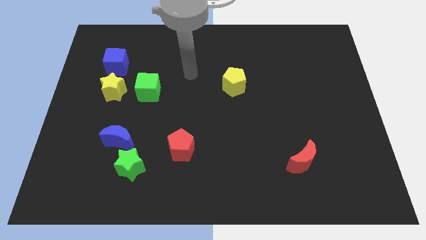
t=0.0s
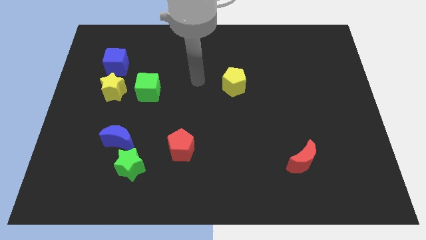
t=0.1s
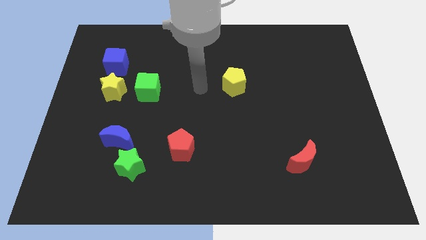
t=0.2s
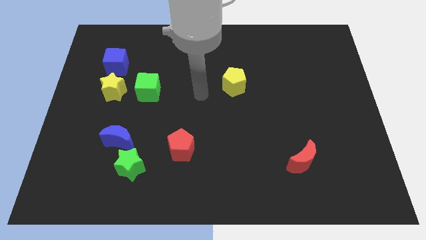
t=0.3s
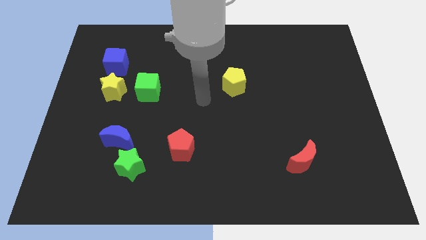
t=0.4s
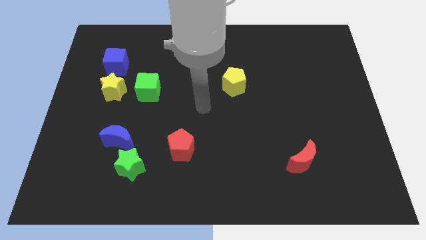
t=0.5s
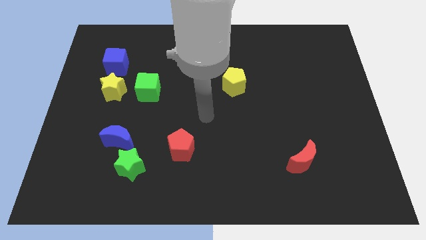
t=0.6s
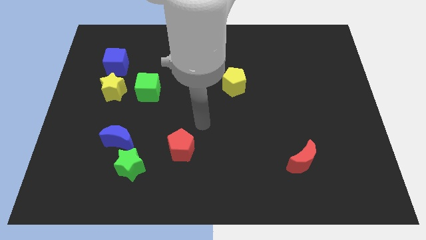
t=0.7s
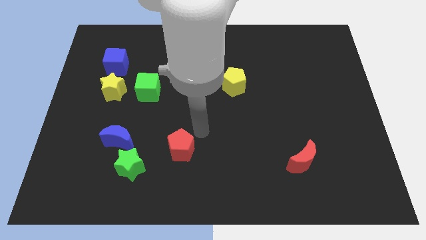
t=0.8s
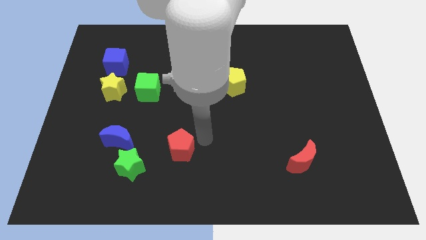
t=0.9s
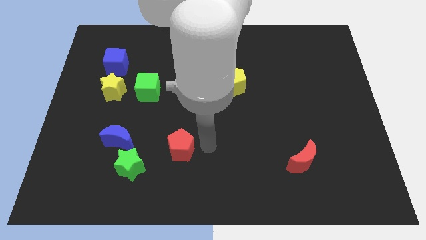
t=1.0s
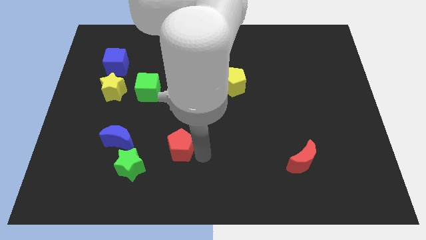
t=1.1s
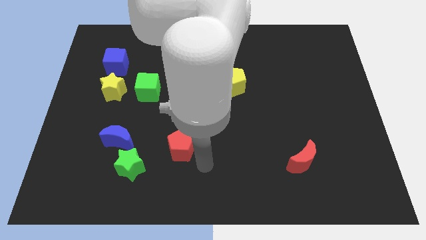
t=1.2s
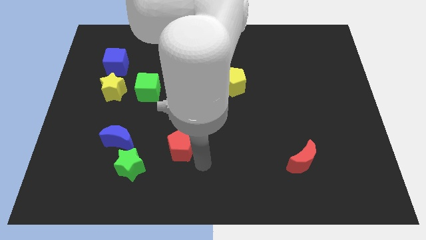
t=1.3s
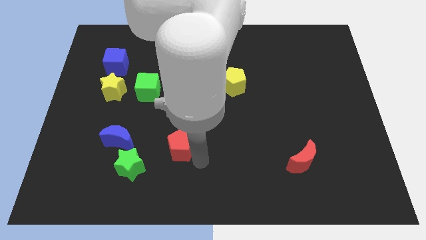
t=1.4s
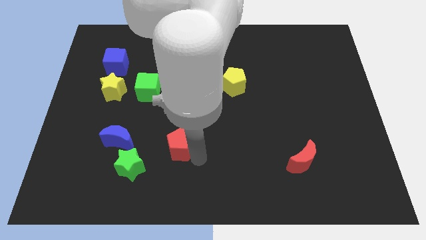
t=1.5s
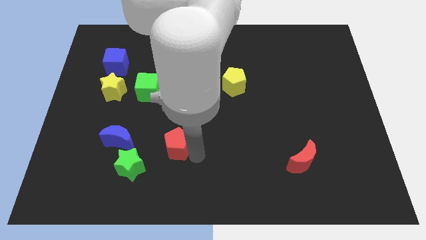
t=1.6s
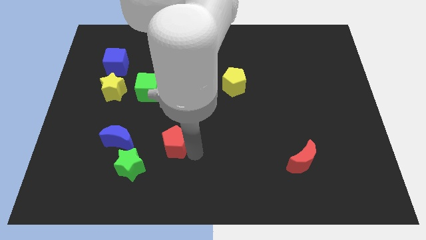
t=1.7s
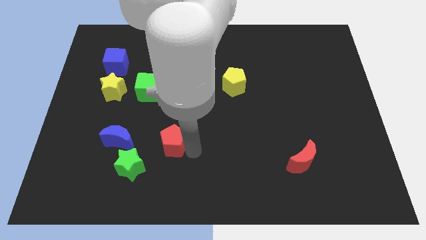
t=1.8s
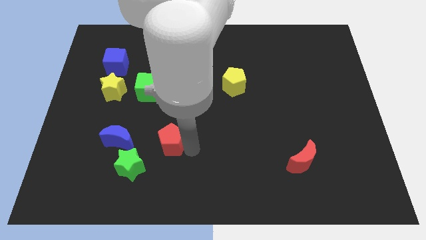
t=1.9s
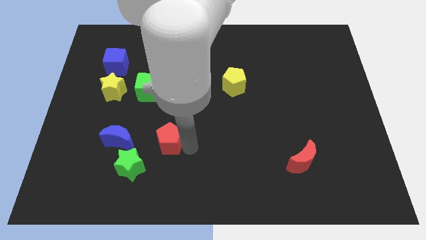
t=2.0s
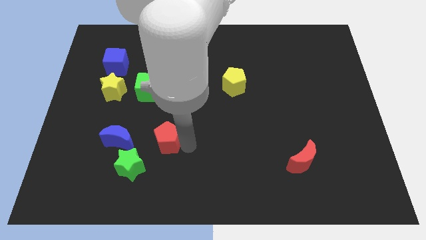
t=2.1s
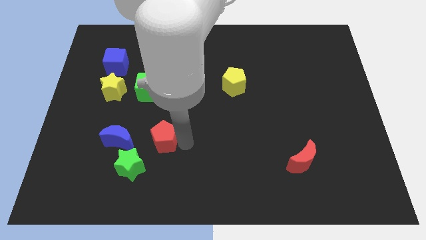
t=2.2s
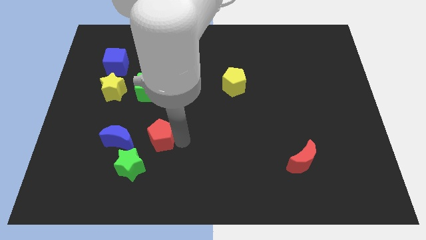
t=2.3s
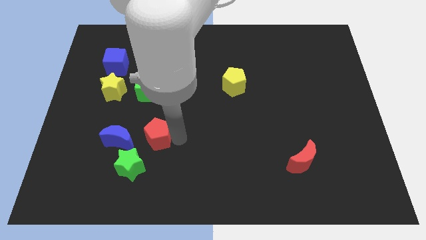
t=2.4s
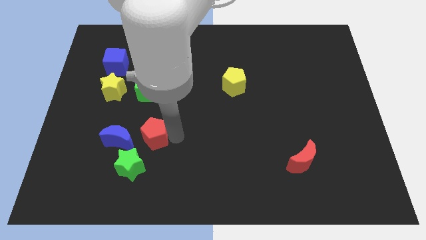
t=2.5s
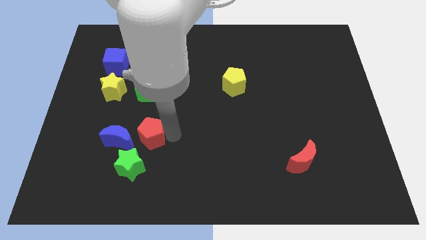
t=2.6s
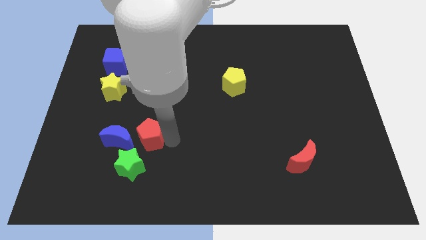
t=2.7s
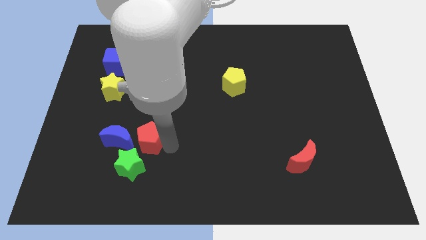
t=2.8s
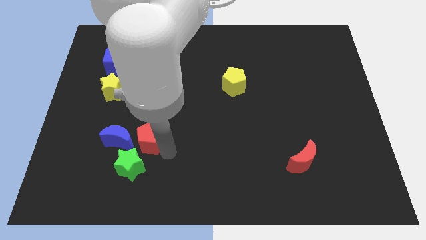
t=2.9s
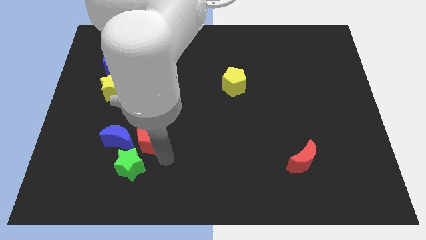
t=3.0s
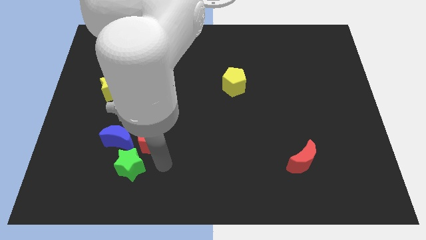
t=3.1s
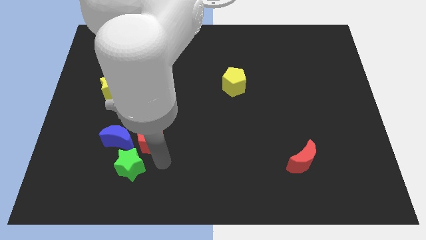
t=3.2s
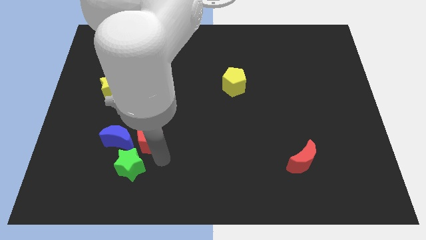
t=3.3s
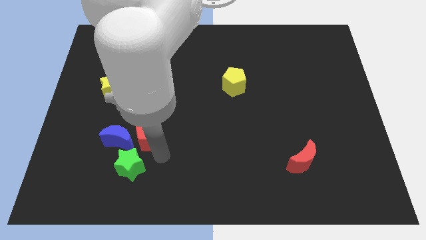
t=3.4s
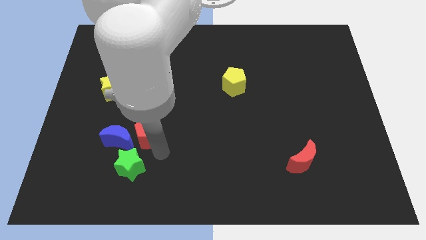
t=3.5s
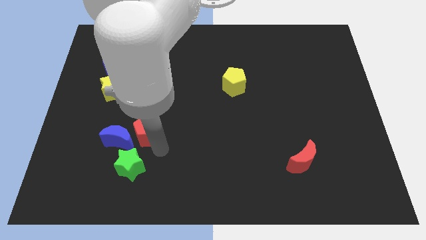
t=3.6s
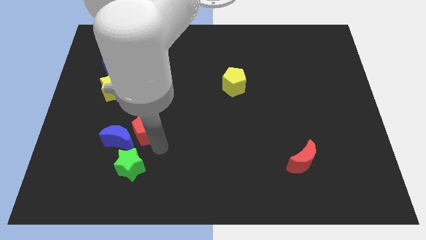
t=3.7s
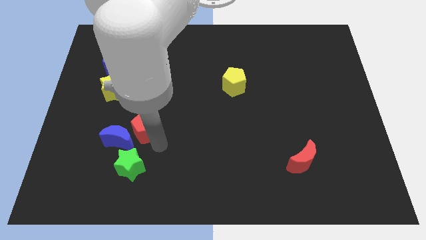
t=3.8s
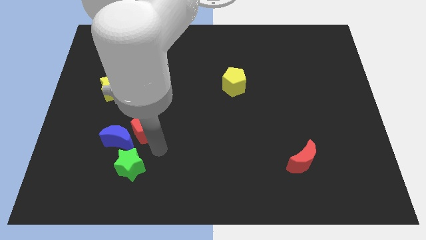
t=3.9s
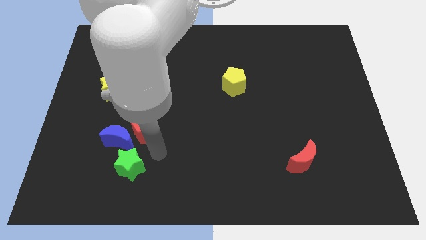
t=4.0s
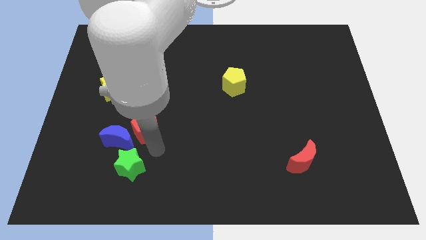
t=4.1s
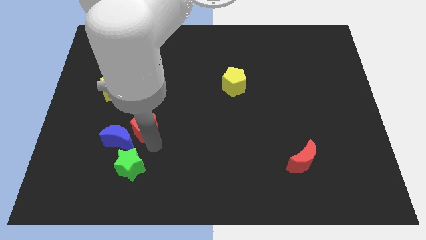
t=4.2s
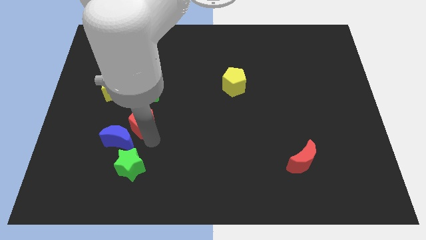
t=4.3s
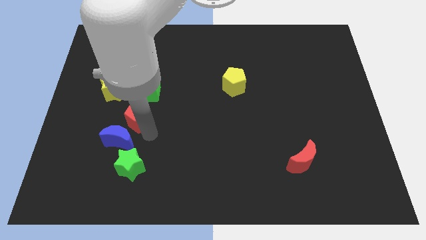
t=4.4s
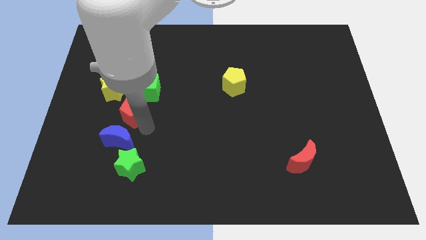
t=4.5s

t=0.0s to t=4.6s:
push the red pentagon diagonally down and to the left of the green cube

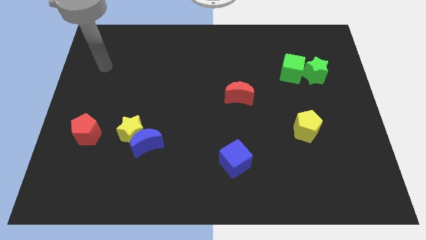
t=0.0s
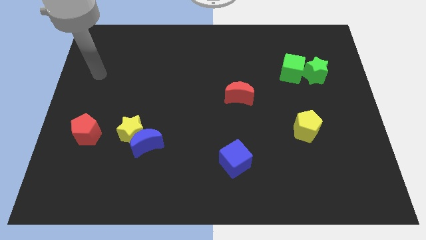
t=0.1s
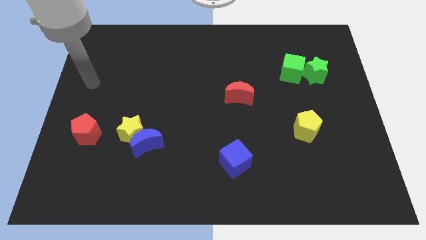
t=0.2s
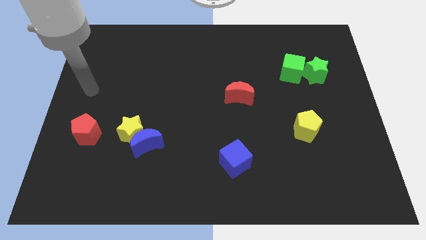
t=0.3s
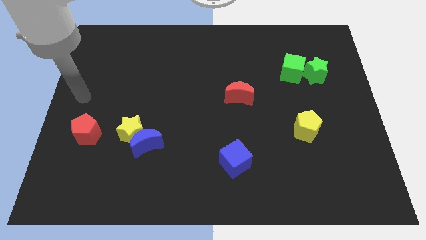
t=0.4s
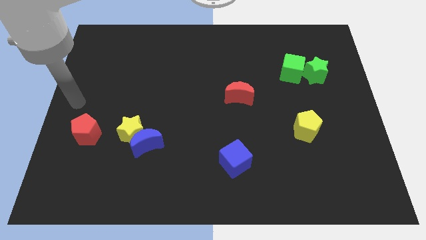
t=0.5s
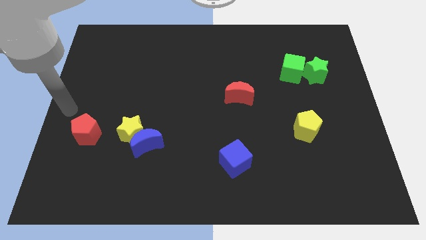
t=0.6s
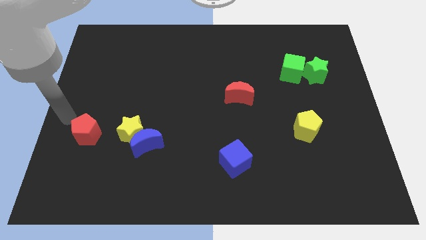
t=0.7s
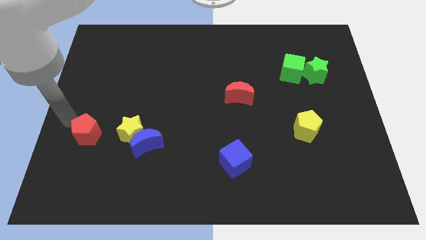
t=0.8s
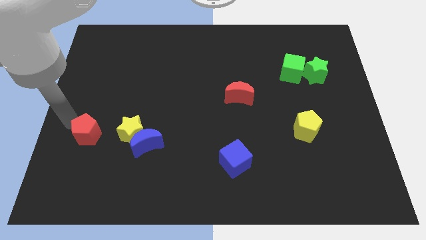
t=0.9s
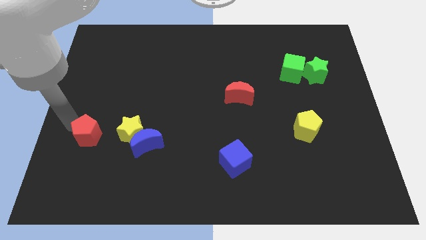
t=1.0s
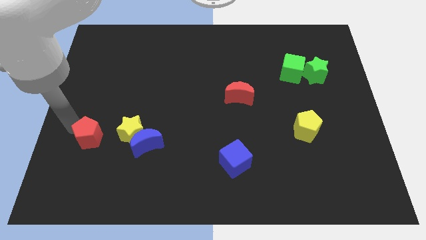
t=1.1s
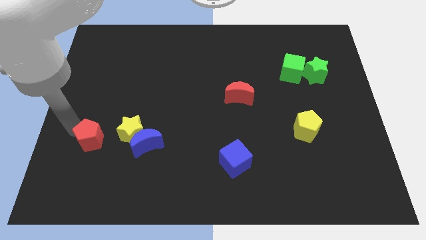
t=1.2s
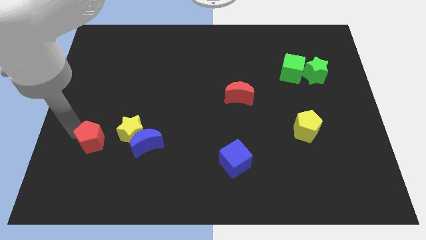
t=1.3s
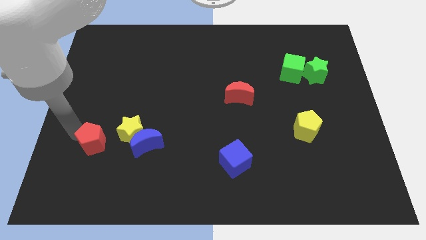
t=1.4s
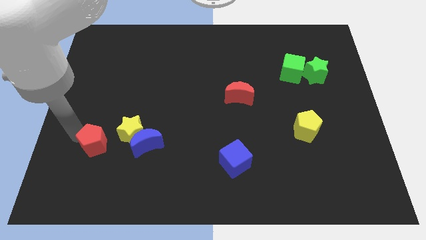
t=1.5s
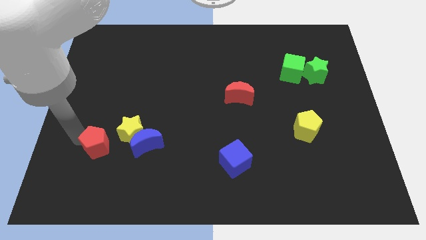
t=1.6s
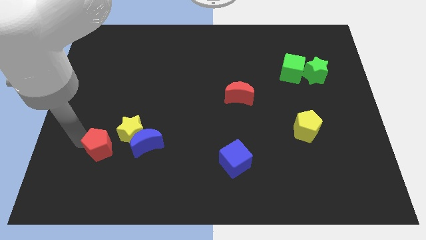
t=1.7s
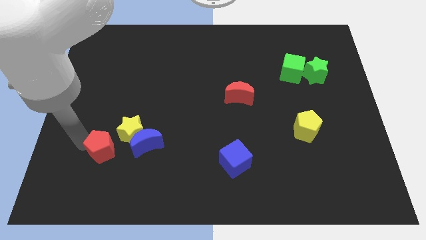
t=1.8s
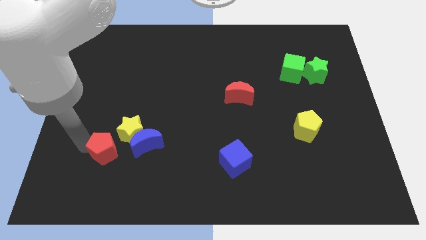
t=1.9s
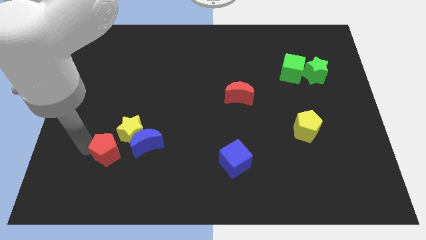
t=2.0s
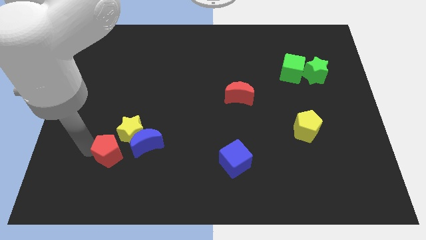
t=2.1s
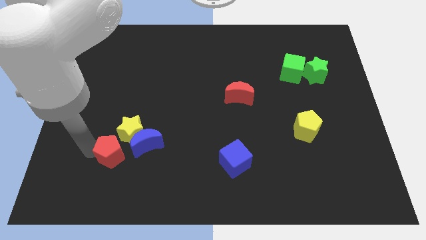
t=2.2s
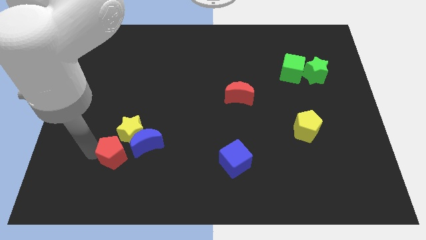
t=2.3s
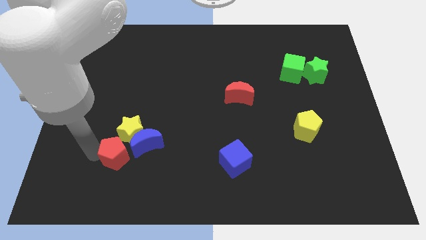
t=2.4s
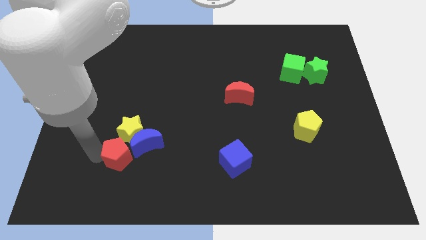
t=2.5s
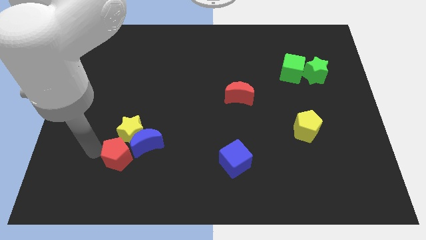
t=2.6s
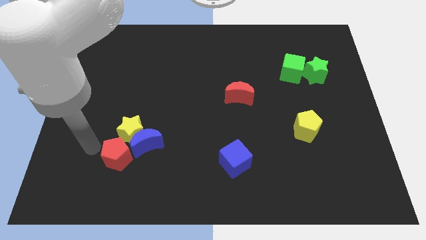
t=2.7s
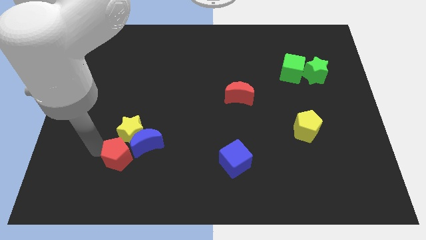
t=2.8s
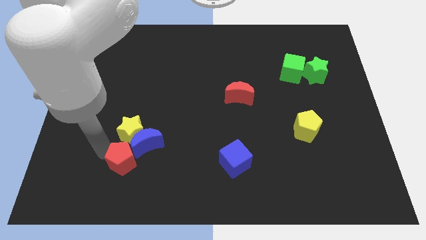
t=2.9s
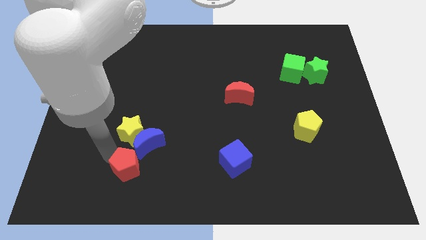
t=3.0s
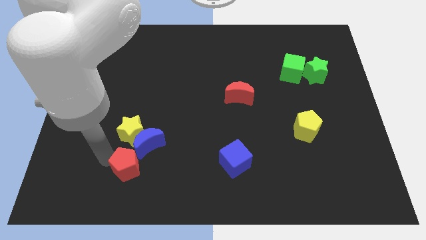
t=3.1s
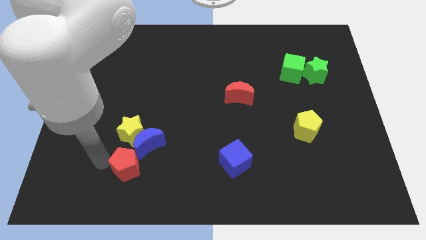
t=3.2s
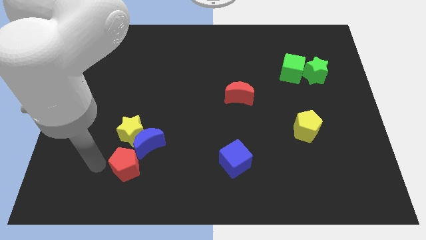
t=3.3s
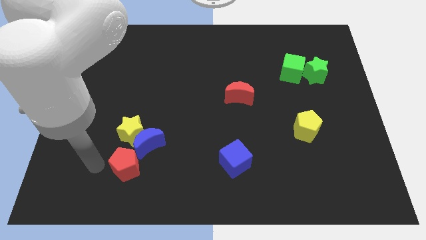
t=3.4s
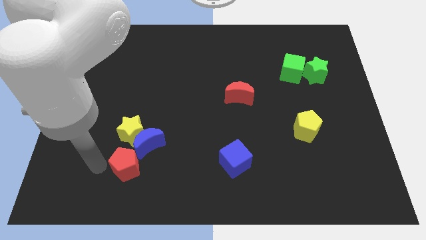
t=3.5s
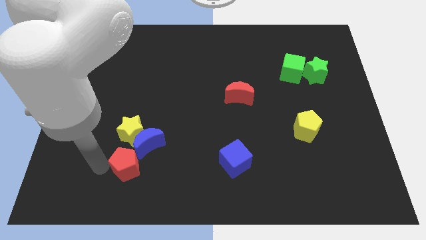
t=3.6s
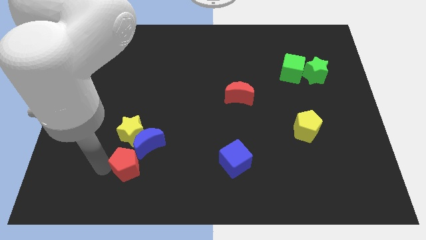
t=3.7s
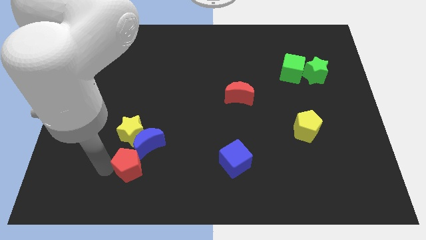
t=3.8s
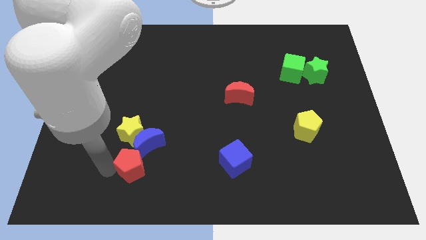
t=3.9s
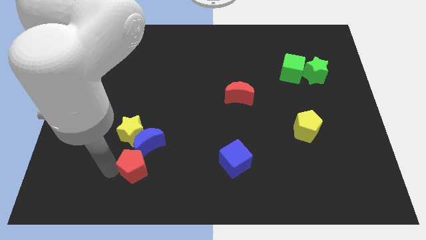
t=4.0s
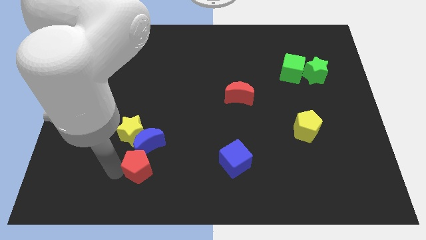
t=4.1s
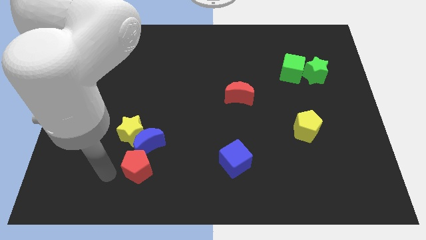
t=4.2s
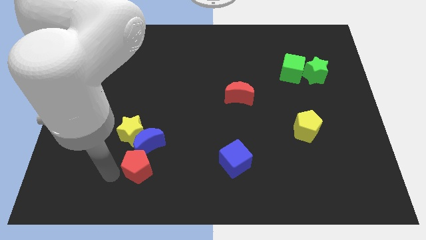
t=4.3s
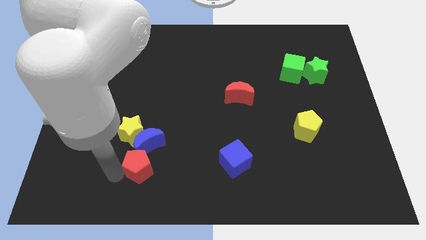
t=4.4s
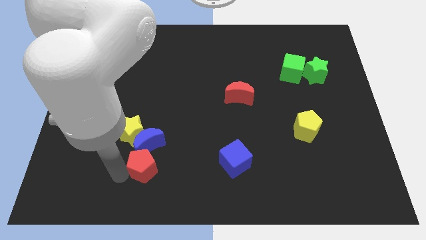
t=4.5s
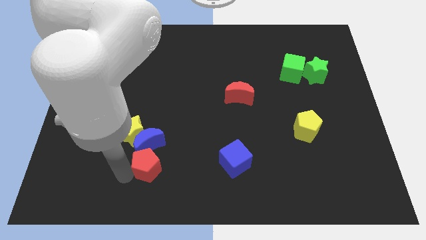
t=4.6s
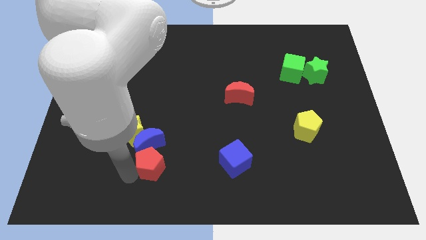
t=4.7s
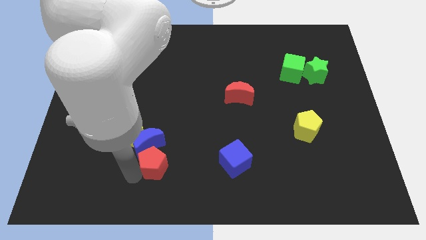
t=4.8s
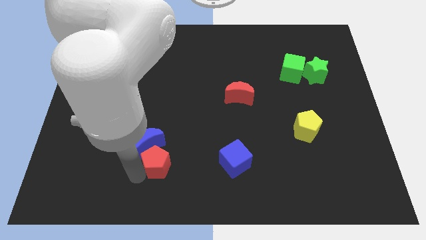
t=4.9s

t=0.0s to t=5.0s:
push the red pentagon to the left of the blue cube
